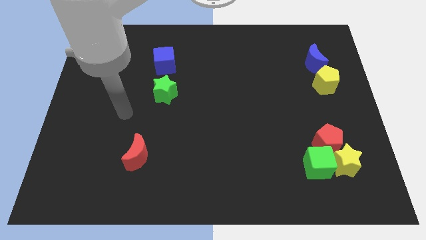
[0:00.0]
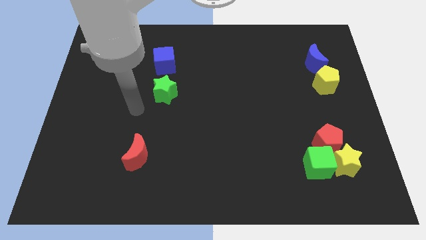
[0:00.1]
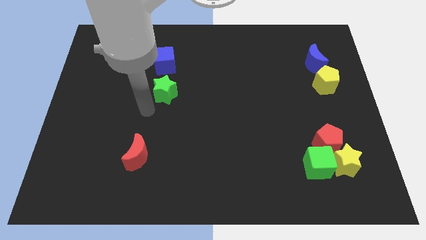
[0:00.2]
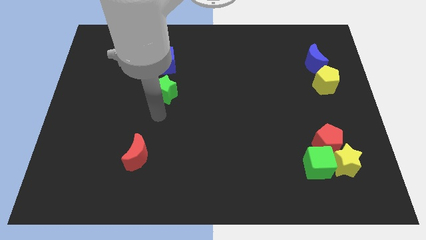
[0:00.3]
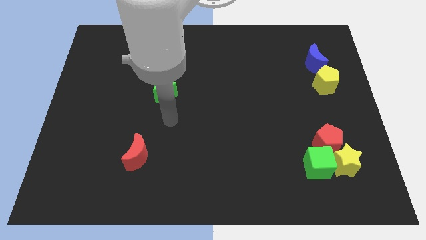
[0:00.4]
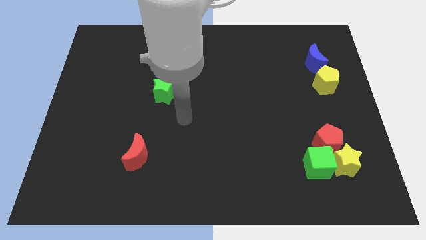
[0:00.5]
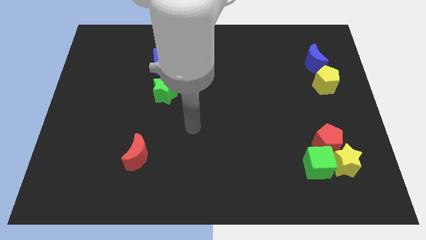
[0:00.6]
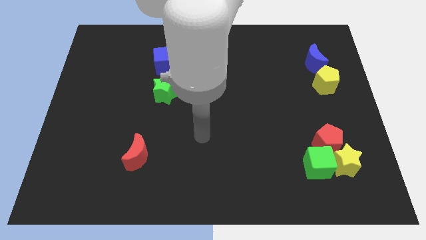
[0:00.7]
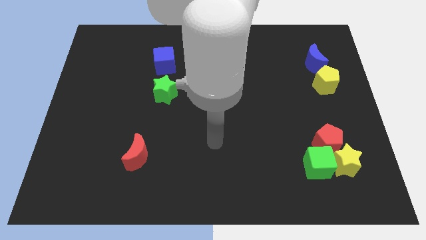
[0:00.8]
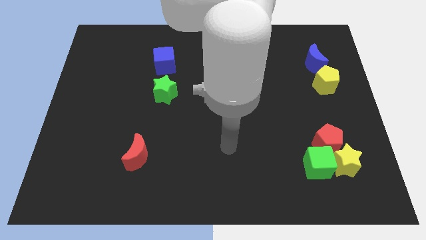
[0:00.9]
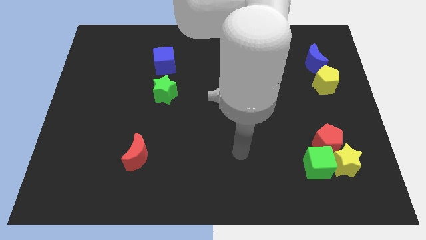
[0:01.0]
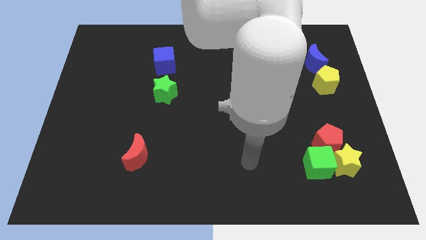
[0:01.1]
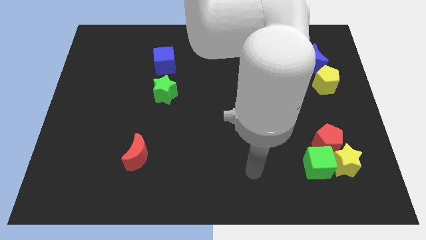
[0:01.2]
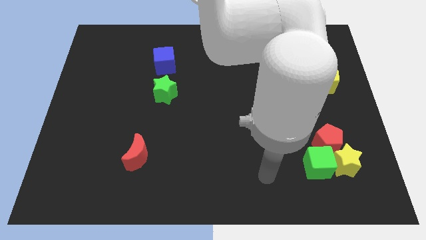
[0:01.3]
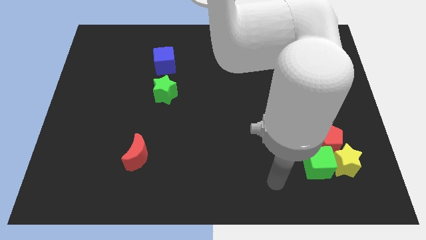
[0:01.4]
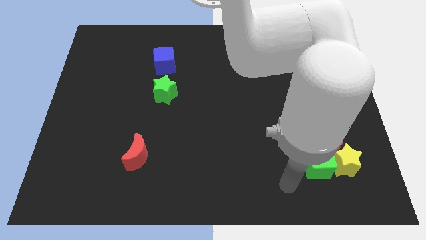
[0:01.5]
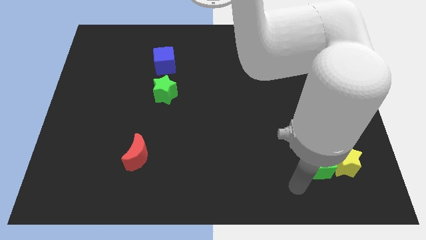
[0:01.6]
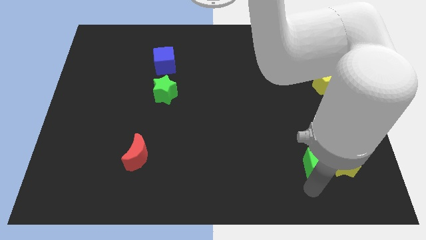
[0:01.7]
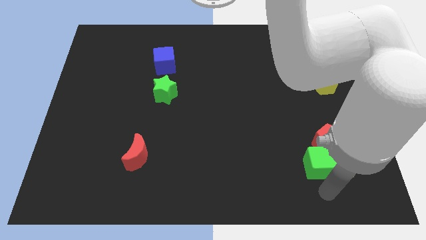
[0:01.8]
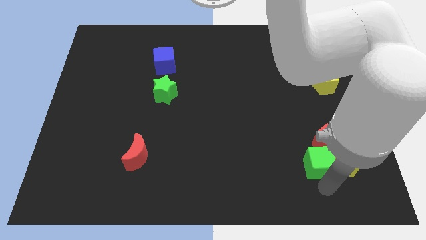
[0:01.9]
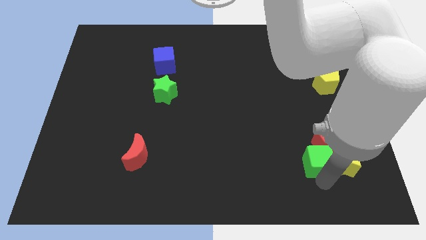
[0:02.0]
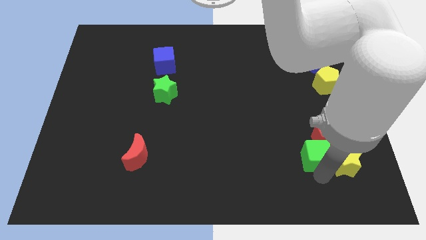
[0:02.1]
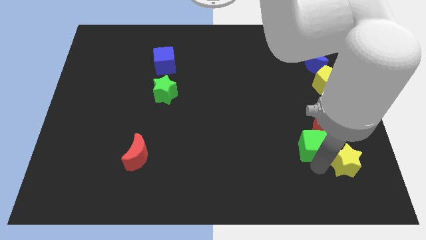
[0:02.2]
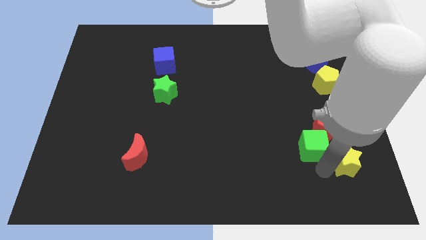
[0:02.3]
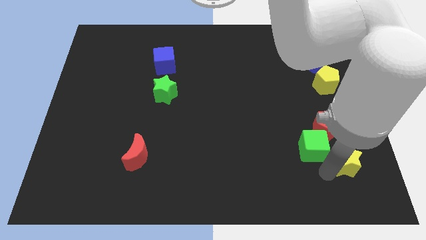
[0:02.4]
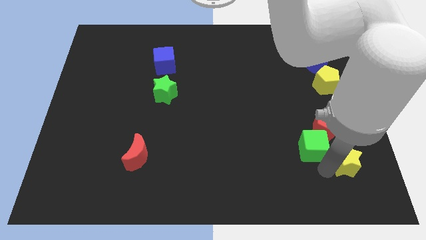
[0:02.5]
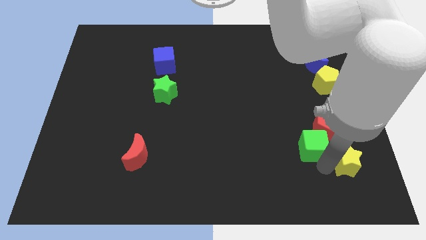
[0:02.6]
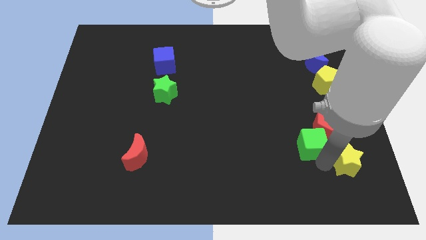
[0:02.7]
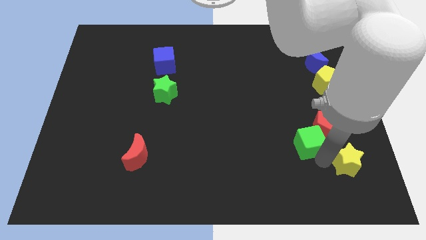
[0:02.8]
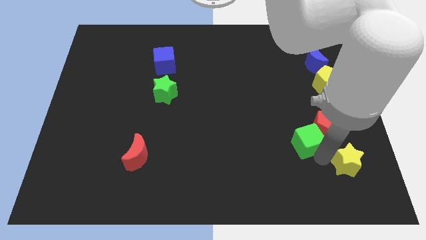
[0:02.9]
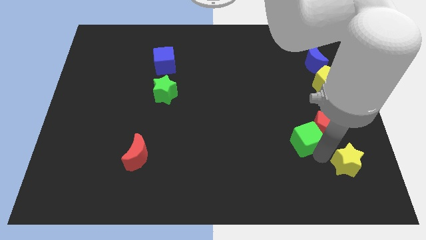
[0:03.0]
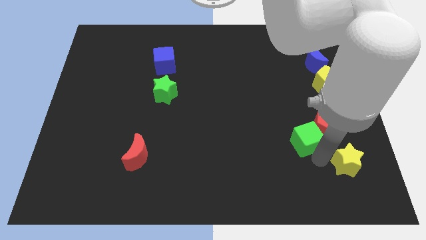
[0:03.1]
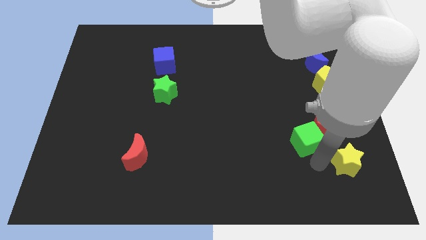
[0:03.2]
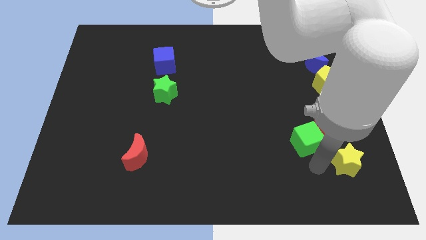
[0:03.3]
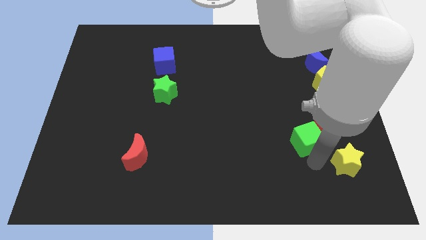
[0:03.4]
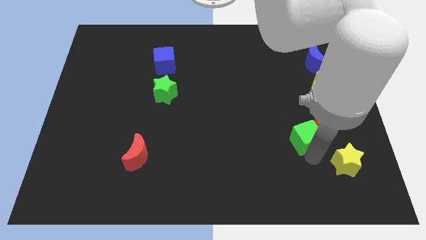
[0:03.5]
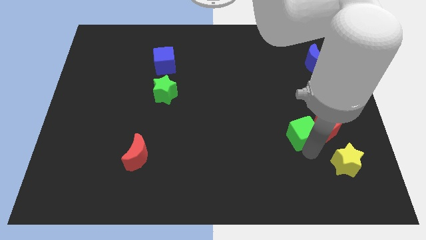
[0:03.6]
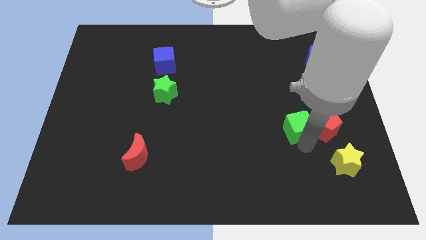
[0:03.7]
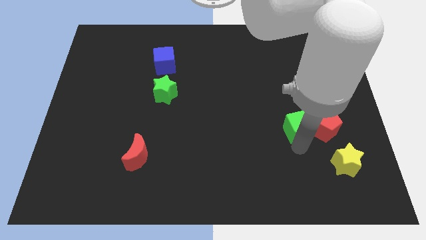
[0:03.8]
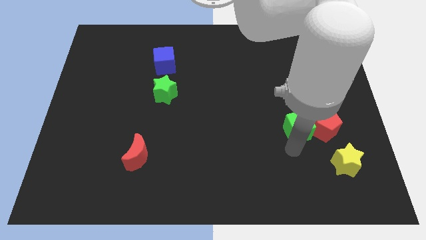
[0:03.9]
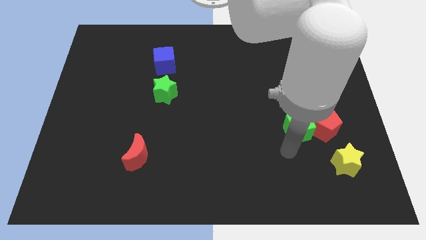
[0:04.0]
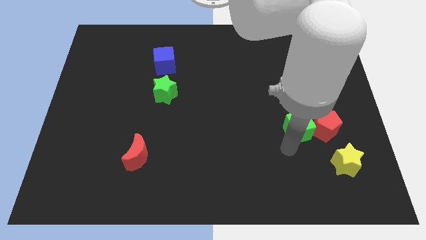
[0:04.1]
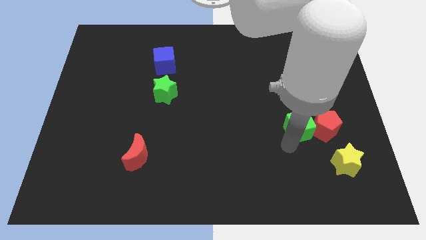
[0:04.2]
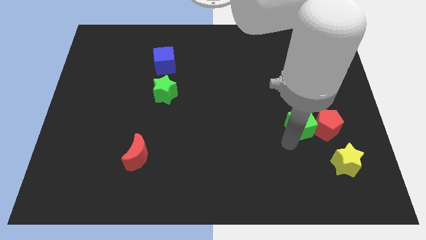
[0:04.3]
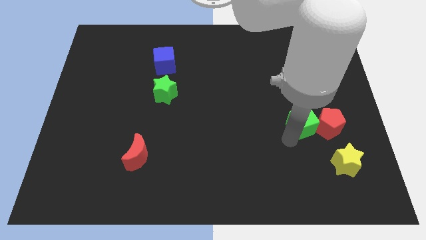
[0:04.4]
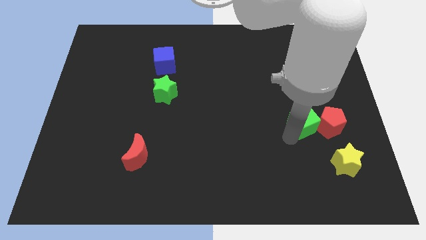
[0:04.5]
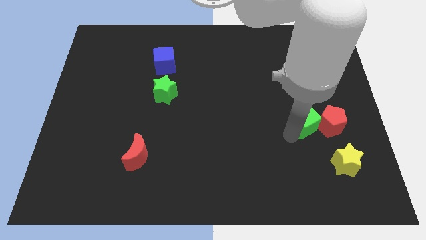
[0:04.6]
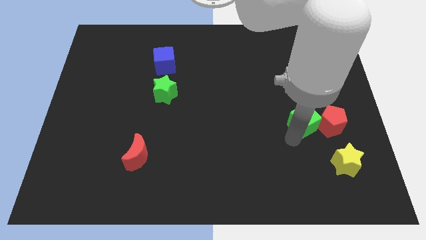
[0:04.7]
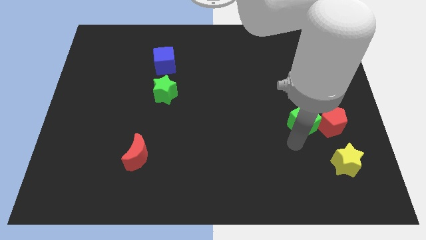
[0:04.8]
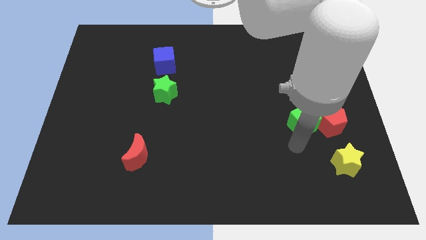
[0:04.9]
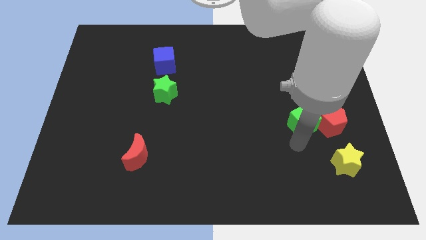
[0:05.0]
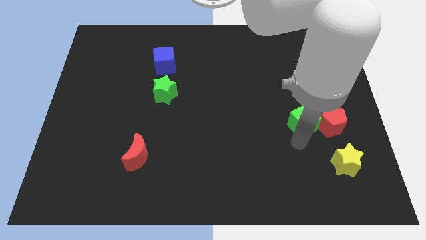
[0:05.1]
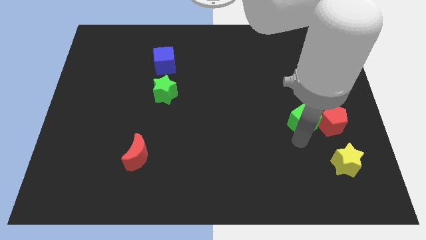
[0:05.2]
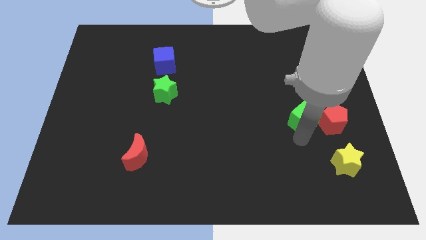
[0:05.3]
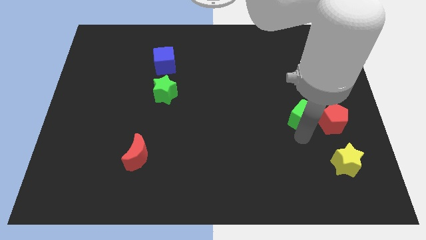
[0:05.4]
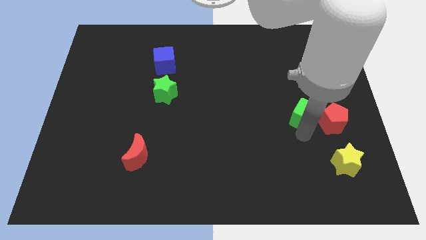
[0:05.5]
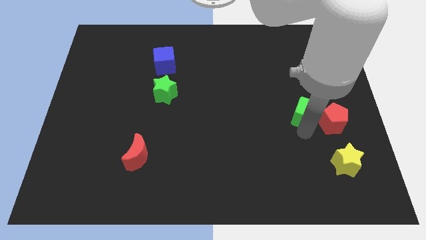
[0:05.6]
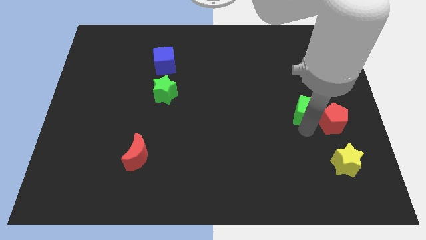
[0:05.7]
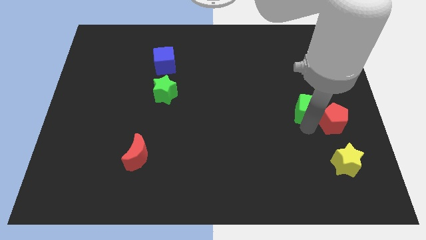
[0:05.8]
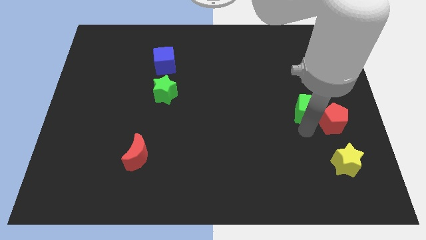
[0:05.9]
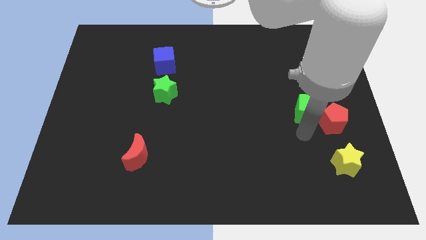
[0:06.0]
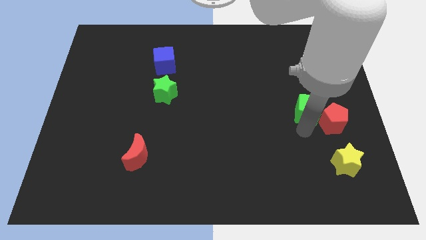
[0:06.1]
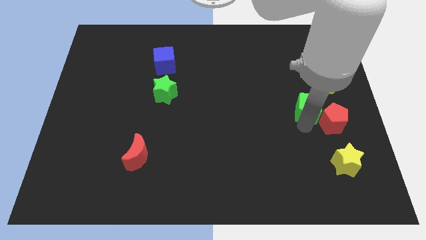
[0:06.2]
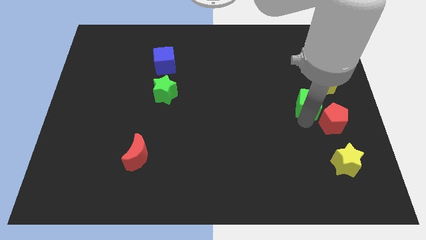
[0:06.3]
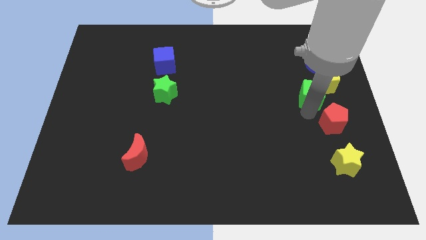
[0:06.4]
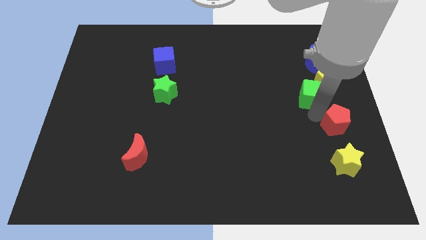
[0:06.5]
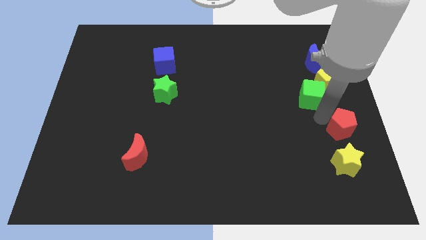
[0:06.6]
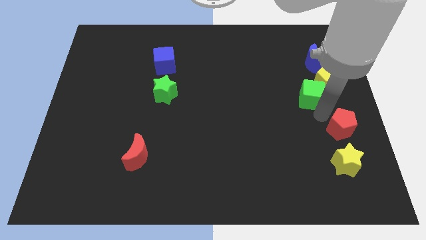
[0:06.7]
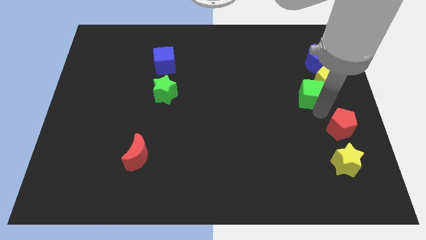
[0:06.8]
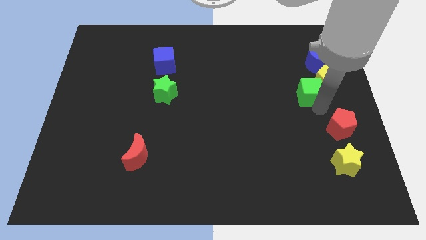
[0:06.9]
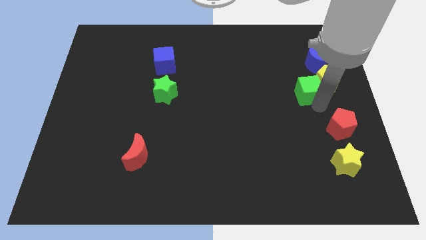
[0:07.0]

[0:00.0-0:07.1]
slide the green cube up

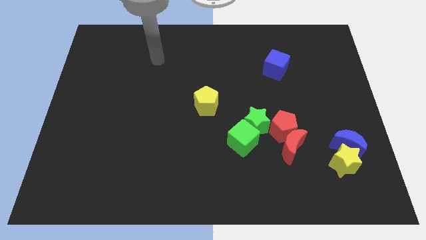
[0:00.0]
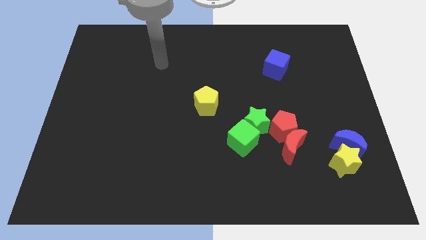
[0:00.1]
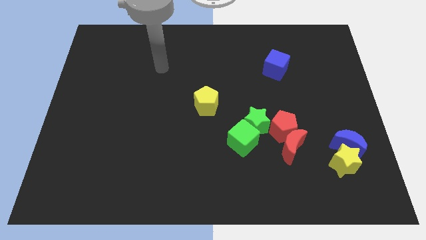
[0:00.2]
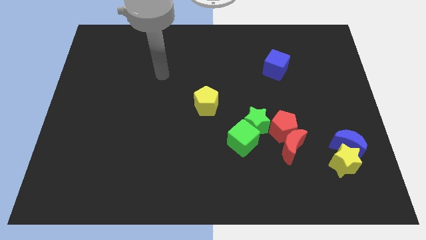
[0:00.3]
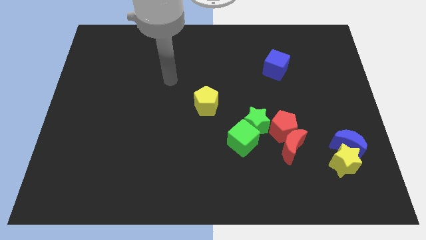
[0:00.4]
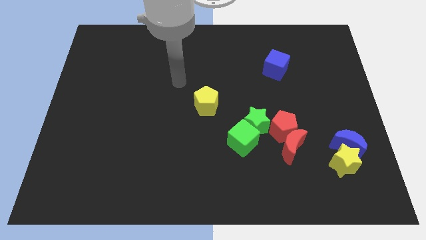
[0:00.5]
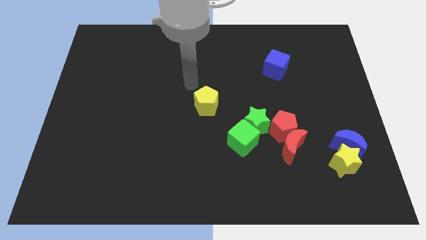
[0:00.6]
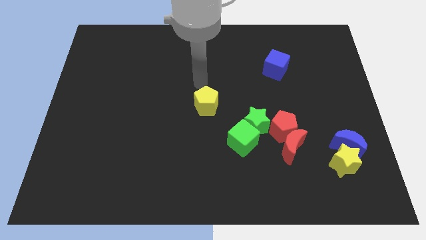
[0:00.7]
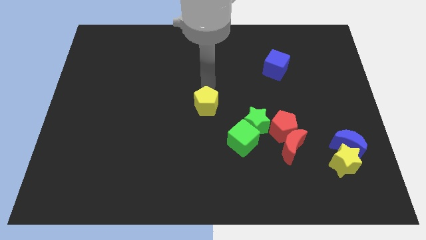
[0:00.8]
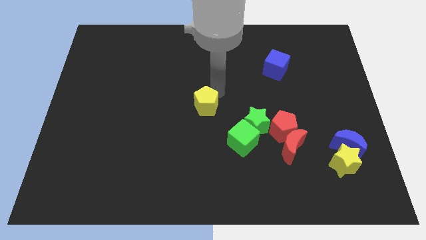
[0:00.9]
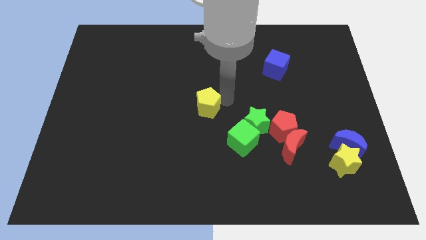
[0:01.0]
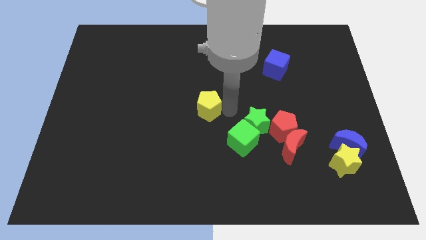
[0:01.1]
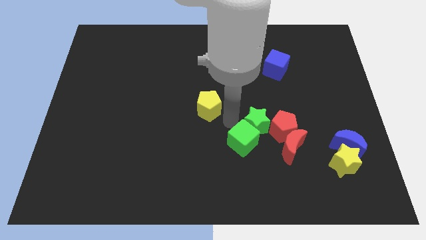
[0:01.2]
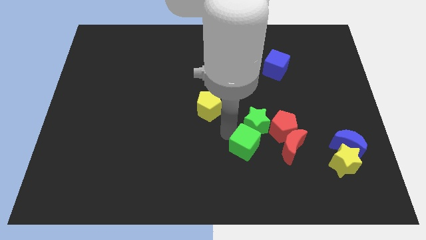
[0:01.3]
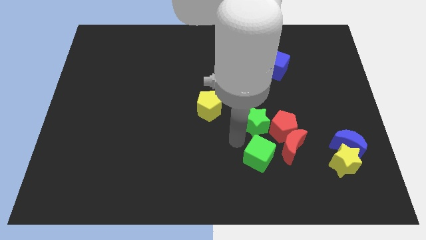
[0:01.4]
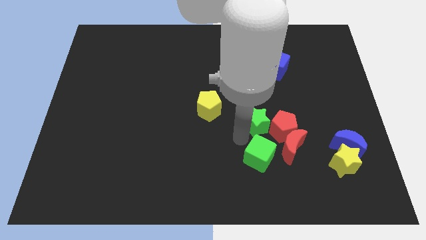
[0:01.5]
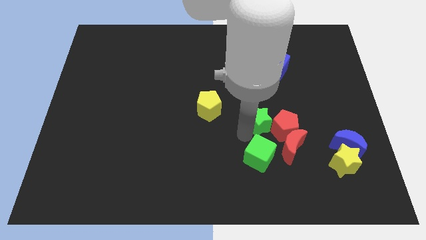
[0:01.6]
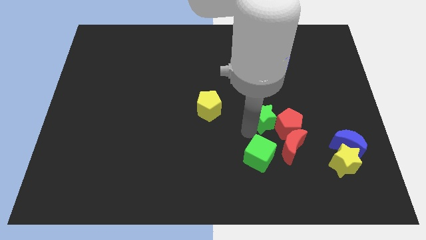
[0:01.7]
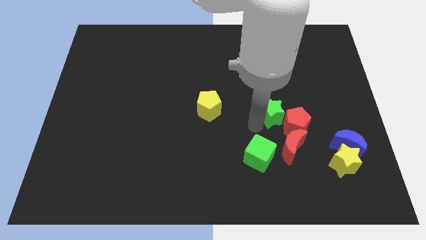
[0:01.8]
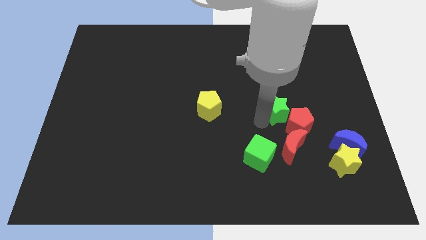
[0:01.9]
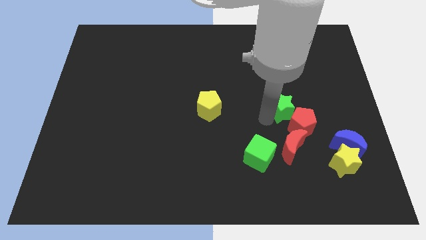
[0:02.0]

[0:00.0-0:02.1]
push the green star diagonally up and right a little bit
